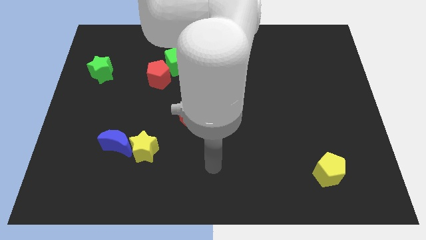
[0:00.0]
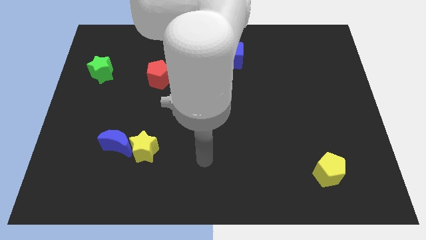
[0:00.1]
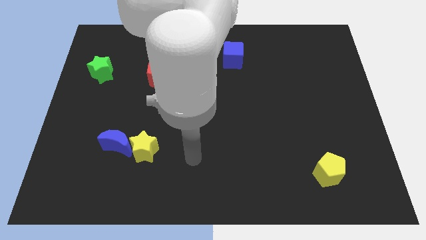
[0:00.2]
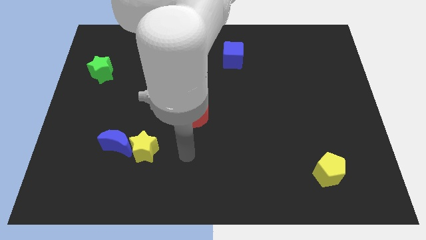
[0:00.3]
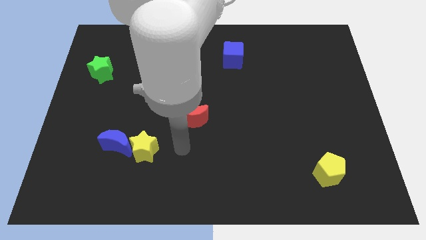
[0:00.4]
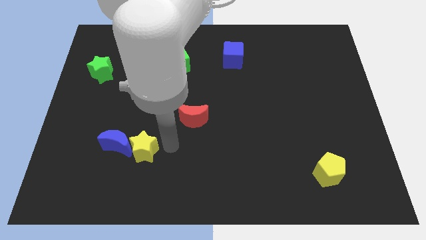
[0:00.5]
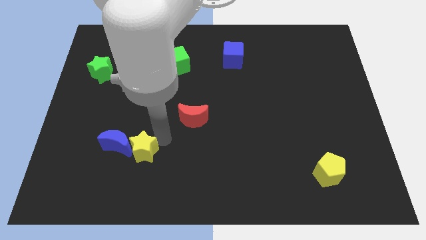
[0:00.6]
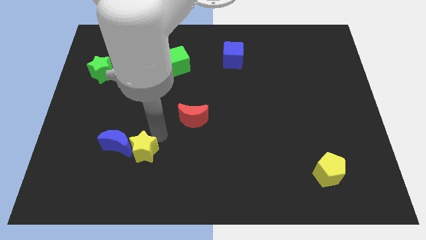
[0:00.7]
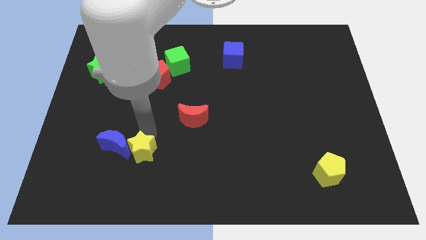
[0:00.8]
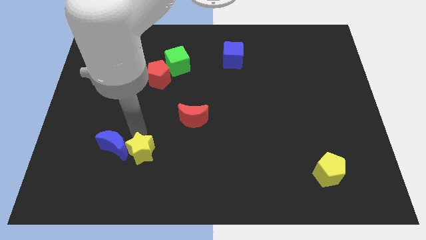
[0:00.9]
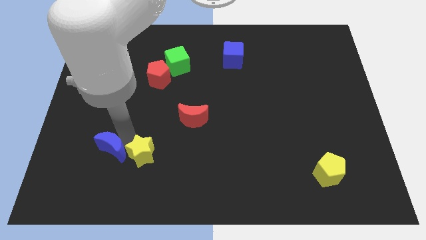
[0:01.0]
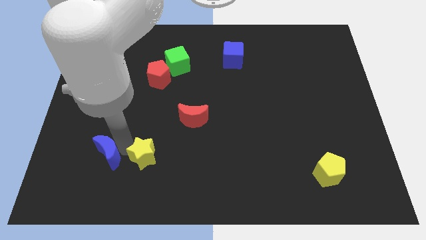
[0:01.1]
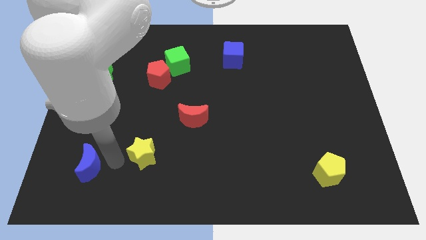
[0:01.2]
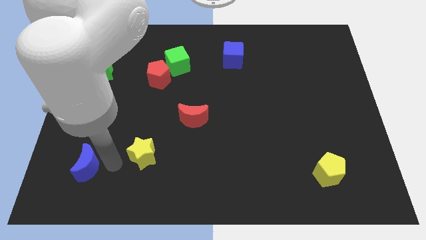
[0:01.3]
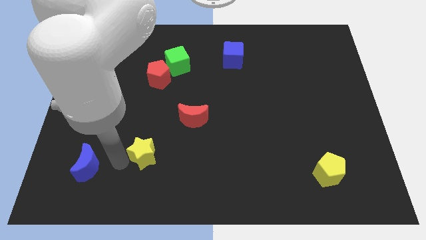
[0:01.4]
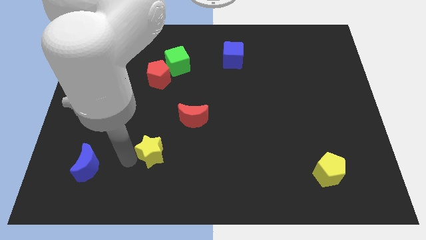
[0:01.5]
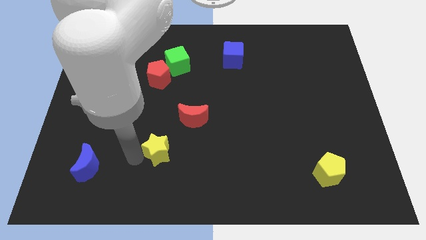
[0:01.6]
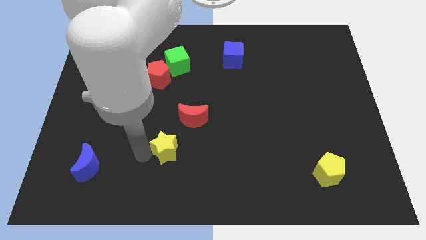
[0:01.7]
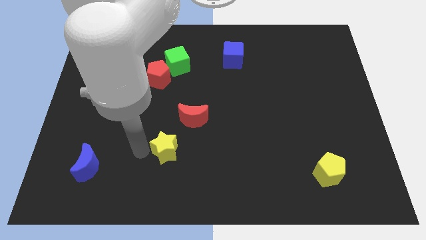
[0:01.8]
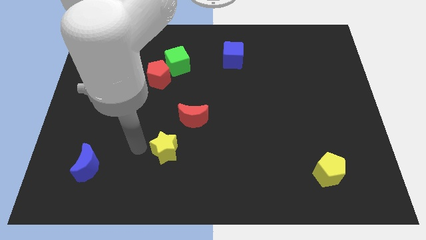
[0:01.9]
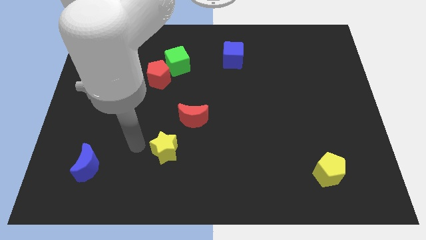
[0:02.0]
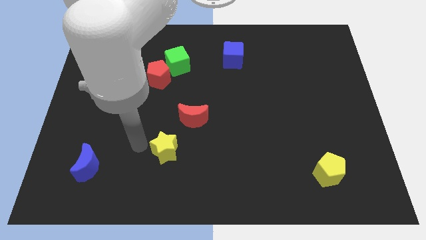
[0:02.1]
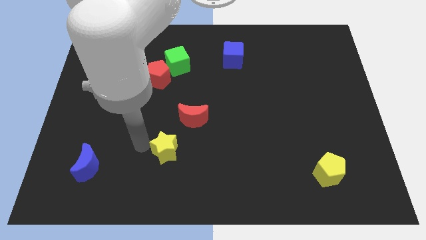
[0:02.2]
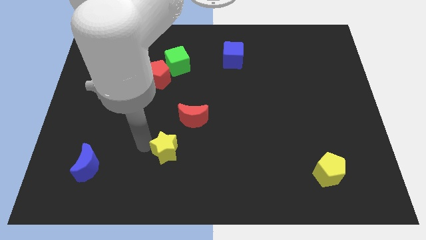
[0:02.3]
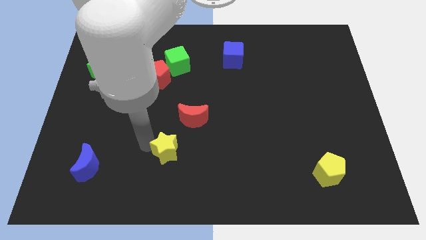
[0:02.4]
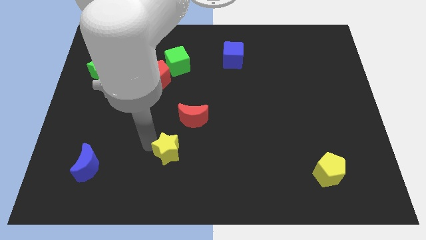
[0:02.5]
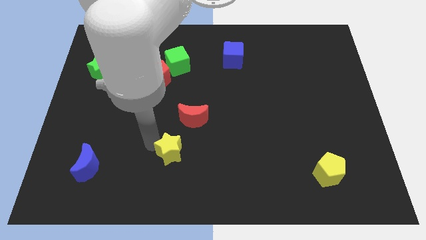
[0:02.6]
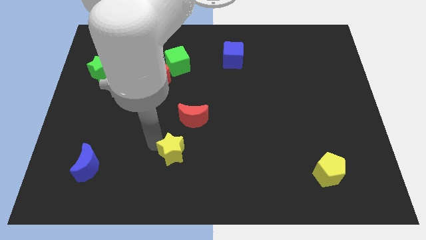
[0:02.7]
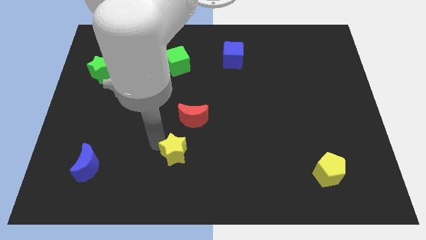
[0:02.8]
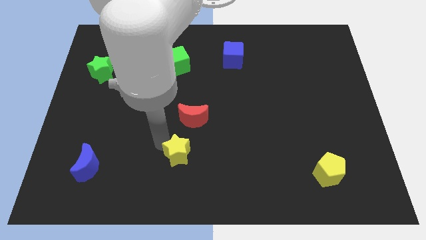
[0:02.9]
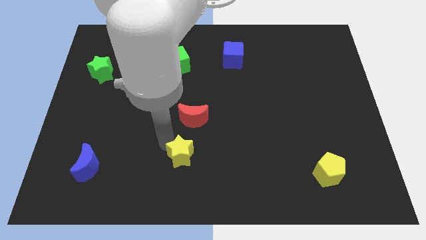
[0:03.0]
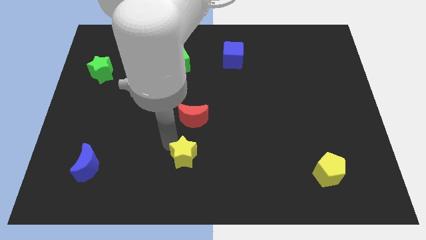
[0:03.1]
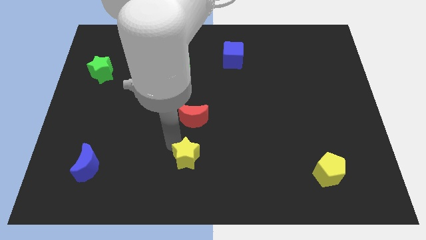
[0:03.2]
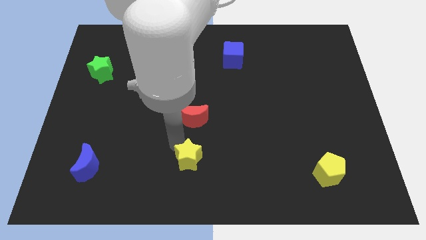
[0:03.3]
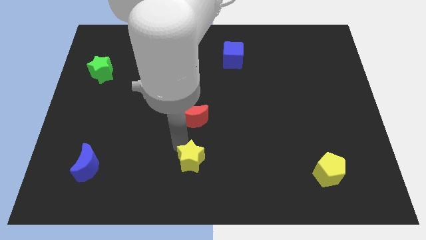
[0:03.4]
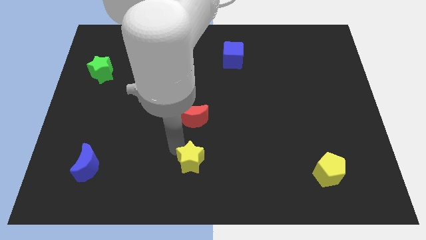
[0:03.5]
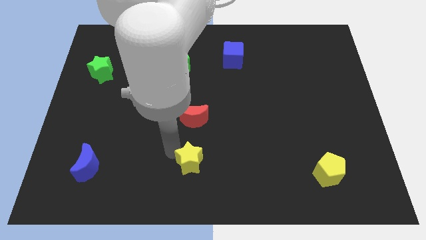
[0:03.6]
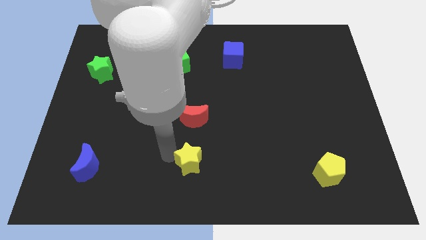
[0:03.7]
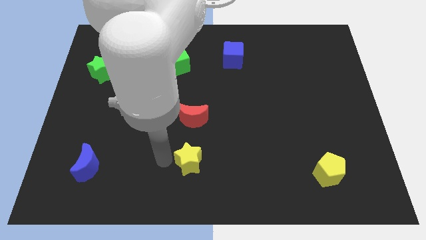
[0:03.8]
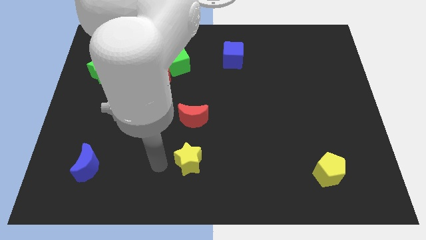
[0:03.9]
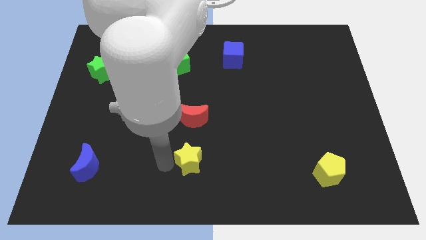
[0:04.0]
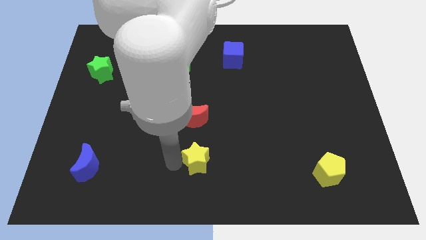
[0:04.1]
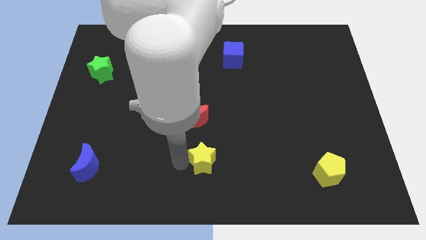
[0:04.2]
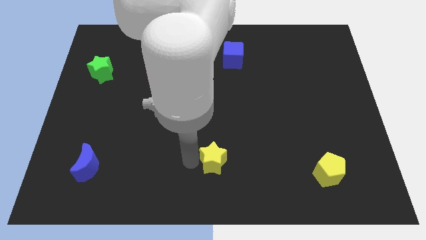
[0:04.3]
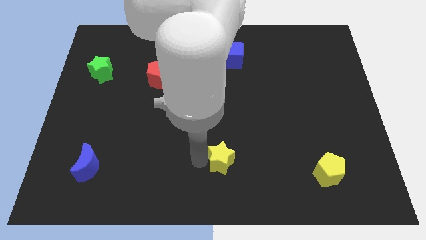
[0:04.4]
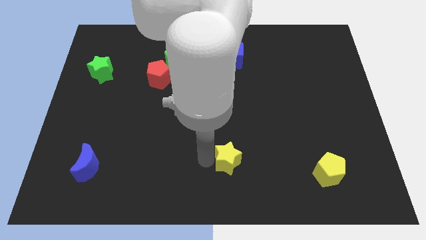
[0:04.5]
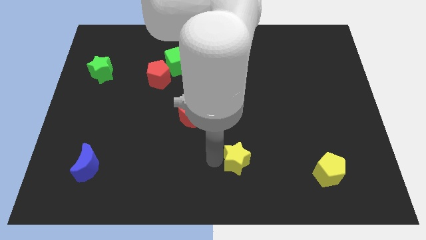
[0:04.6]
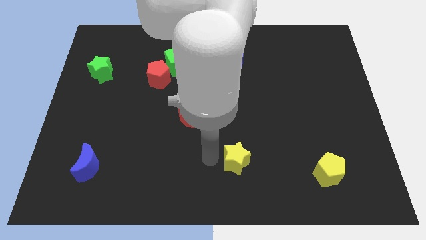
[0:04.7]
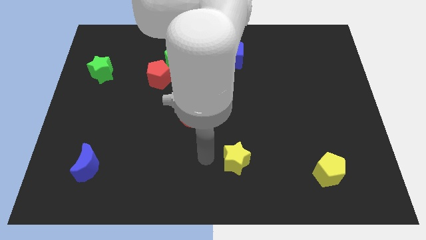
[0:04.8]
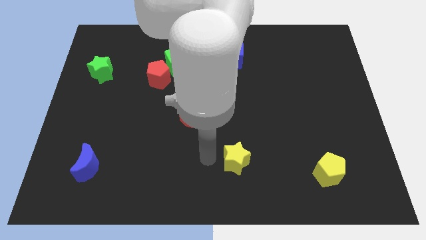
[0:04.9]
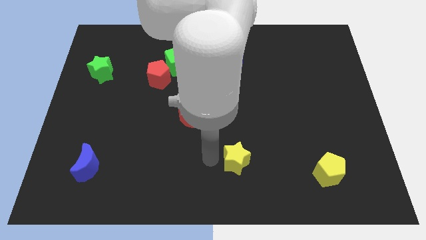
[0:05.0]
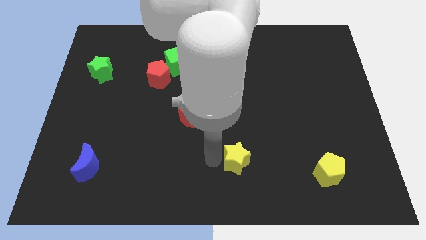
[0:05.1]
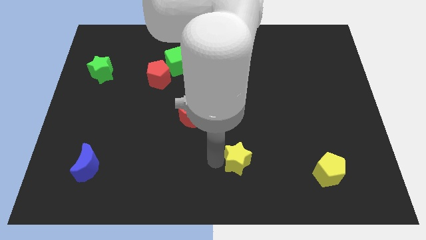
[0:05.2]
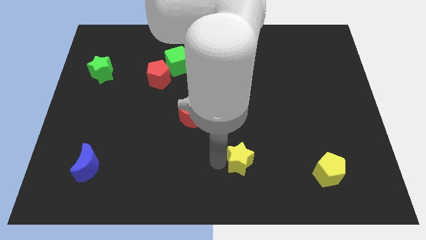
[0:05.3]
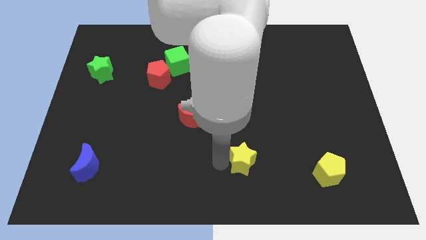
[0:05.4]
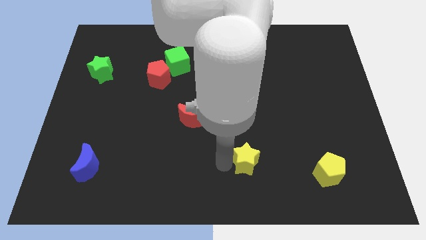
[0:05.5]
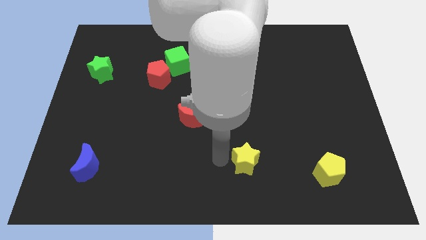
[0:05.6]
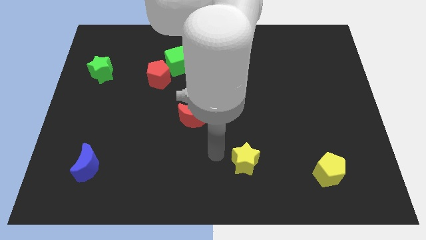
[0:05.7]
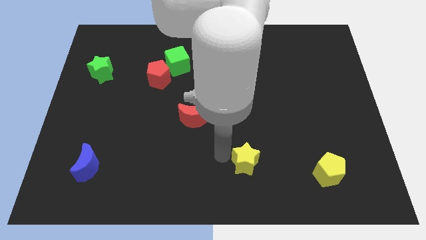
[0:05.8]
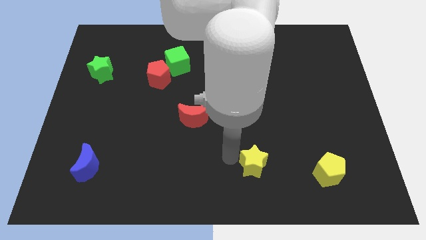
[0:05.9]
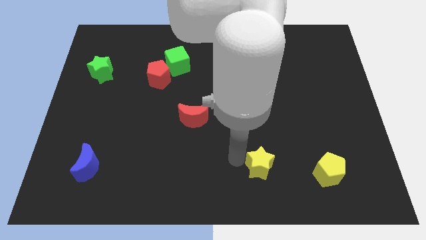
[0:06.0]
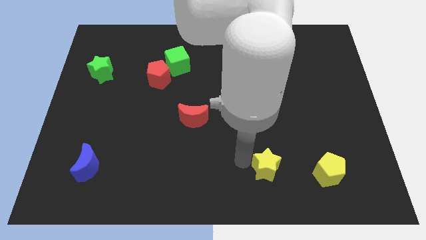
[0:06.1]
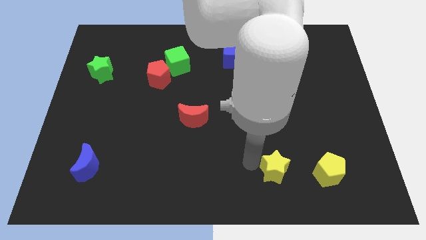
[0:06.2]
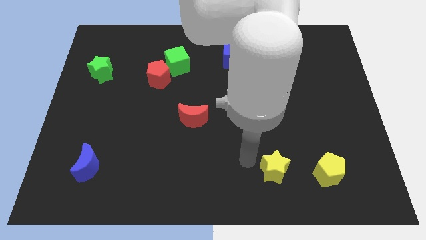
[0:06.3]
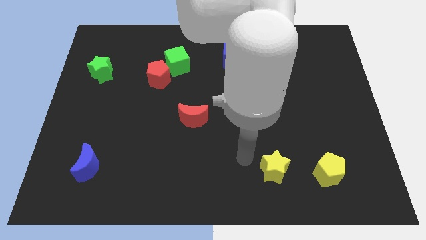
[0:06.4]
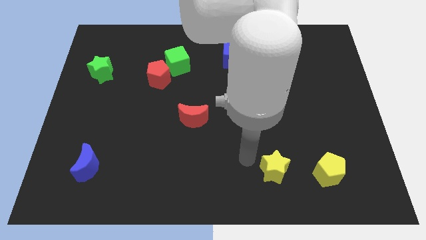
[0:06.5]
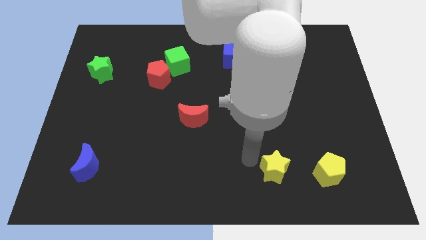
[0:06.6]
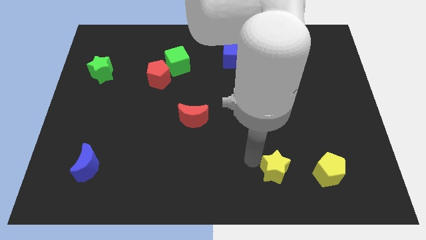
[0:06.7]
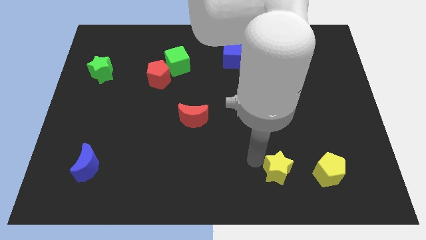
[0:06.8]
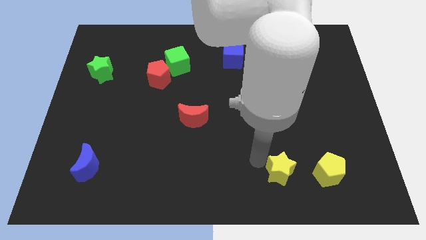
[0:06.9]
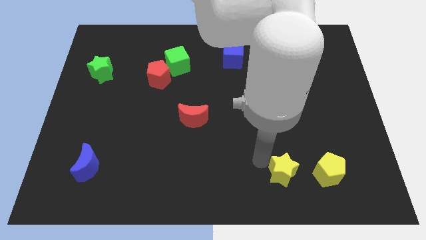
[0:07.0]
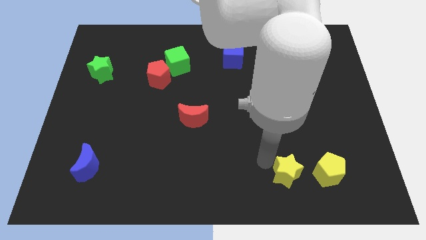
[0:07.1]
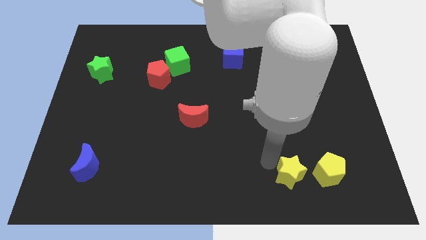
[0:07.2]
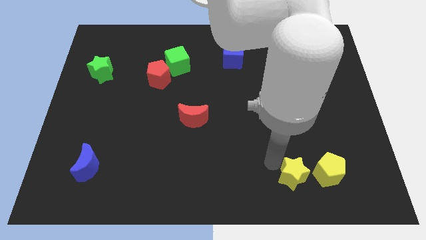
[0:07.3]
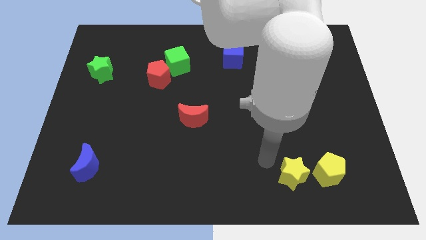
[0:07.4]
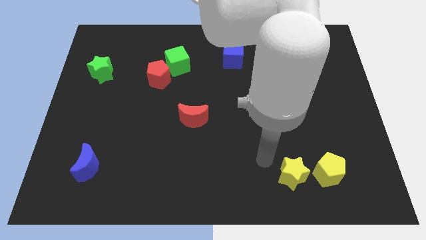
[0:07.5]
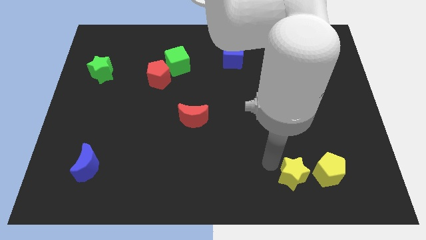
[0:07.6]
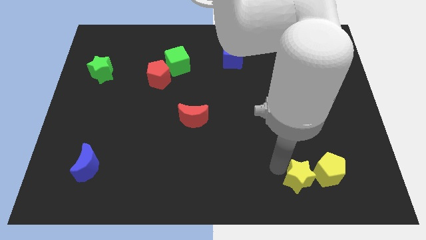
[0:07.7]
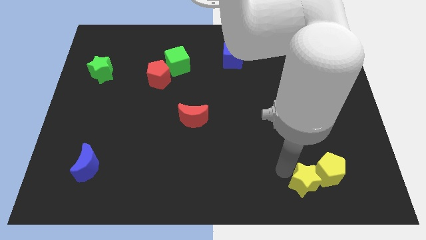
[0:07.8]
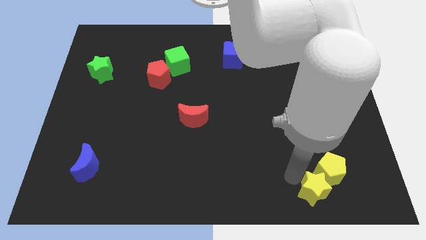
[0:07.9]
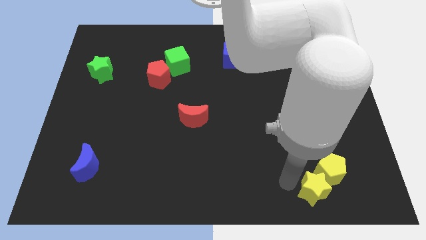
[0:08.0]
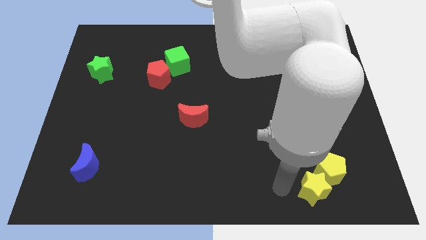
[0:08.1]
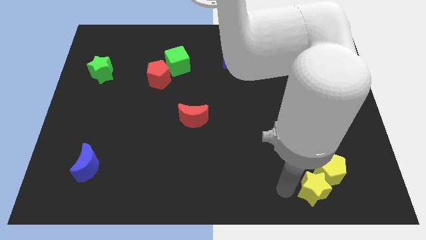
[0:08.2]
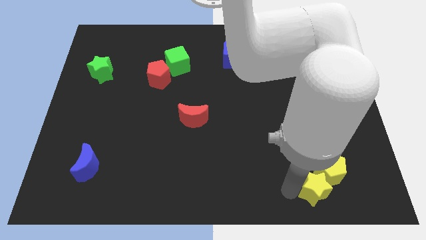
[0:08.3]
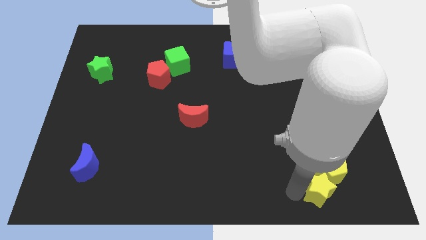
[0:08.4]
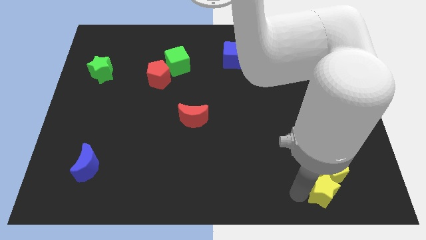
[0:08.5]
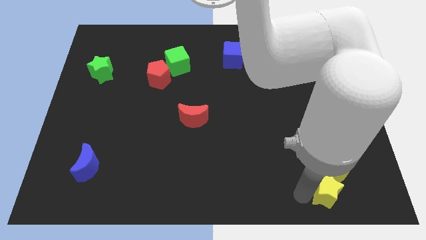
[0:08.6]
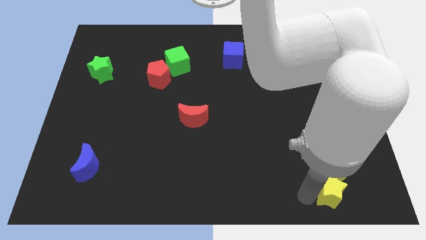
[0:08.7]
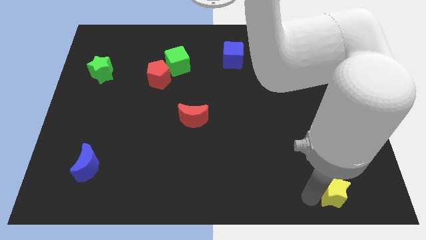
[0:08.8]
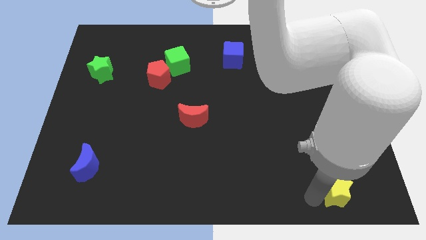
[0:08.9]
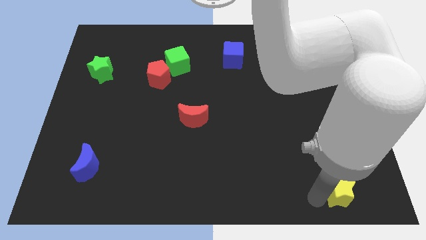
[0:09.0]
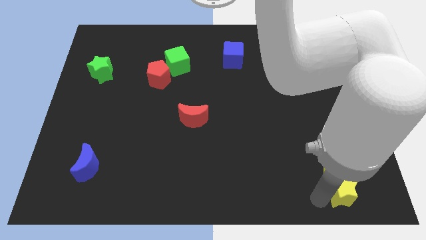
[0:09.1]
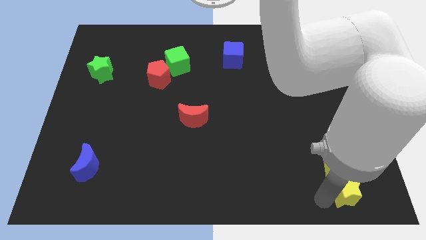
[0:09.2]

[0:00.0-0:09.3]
put the yellow star to the lower right corner
